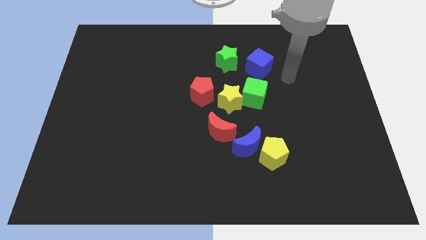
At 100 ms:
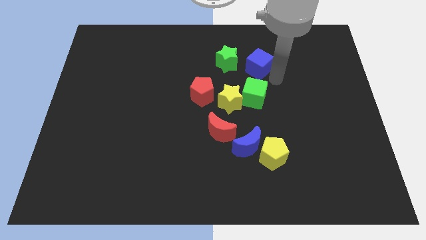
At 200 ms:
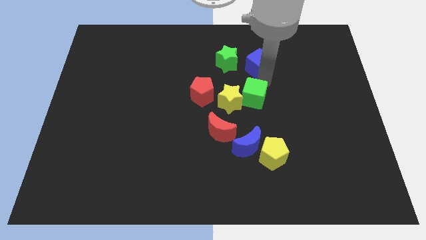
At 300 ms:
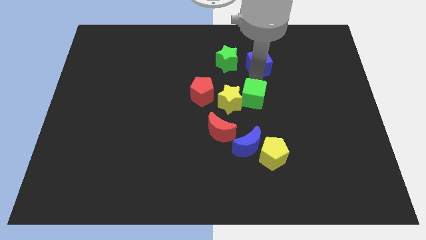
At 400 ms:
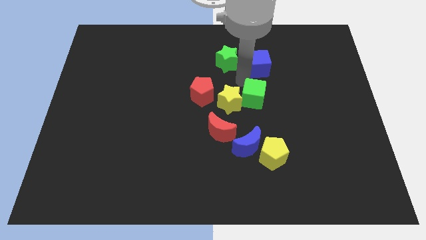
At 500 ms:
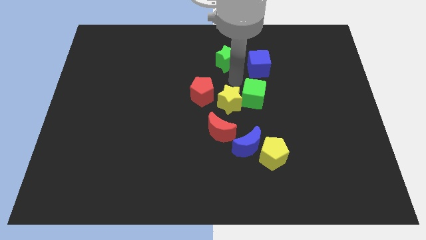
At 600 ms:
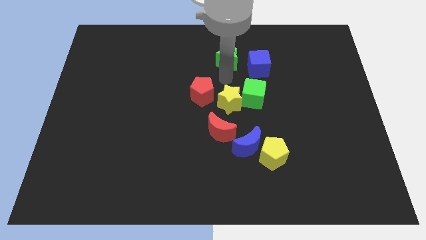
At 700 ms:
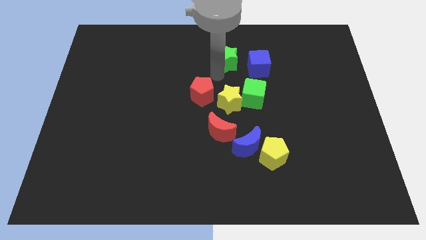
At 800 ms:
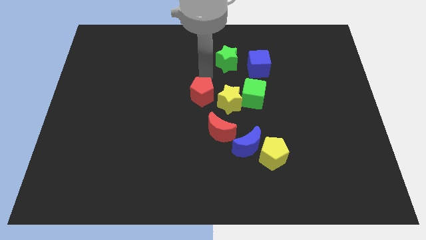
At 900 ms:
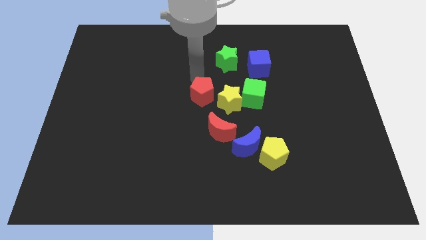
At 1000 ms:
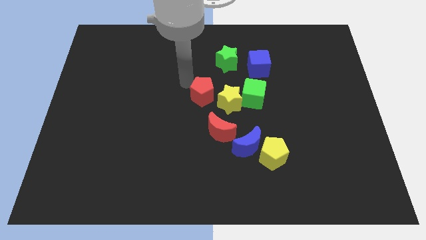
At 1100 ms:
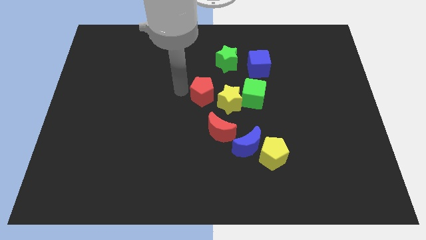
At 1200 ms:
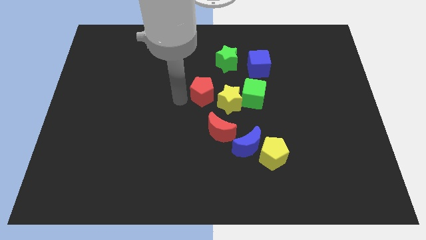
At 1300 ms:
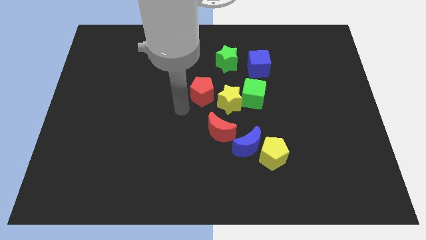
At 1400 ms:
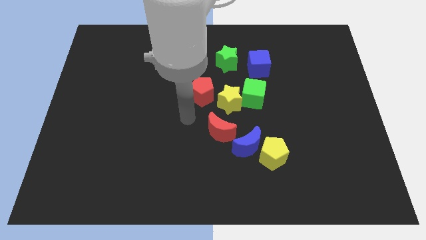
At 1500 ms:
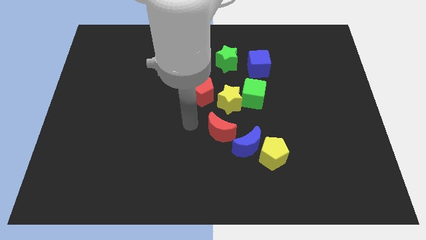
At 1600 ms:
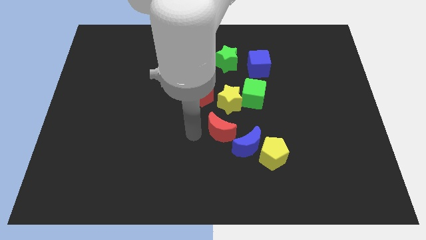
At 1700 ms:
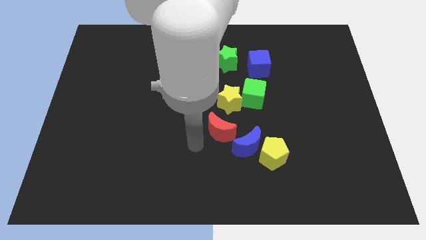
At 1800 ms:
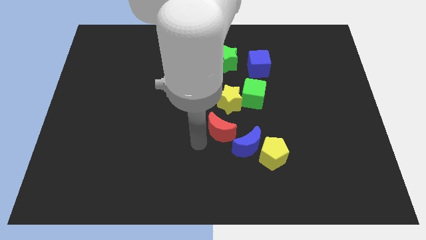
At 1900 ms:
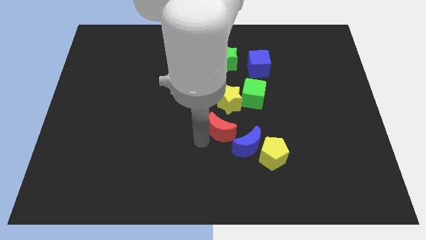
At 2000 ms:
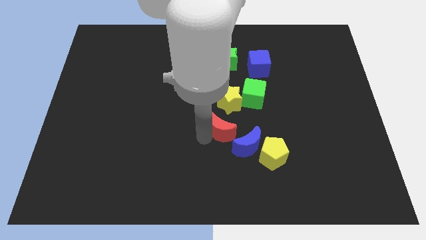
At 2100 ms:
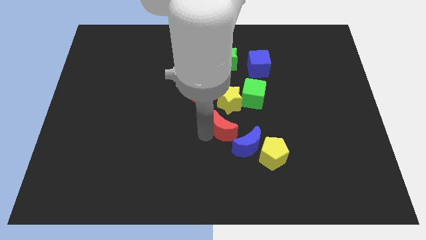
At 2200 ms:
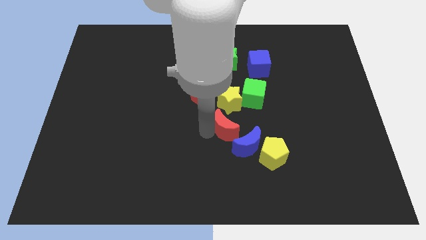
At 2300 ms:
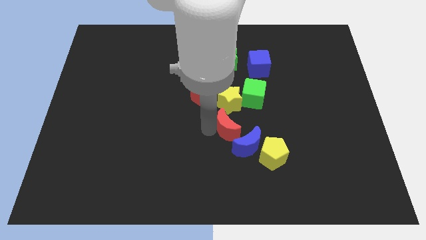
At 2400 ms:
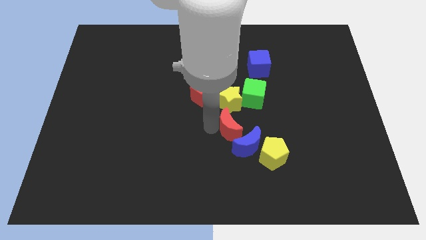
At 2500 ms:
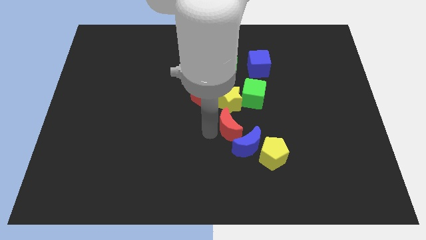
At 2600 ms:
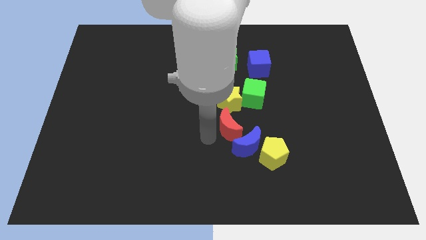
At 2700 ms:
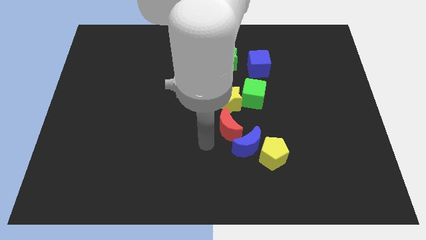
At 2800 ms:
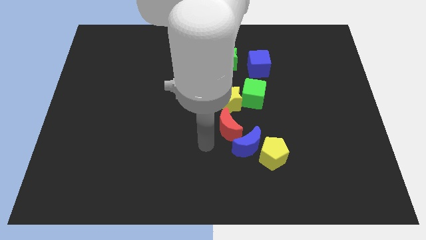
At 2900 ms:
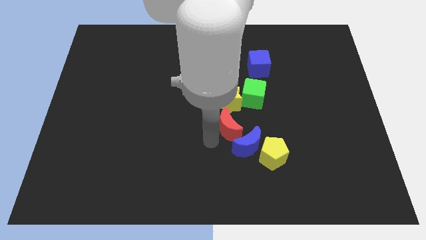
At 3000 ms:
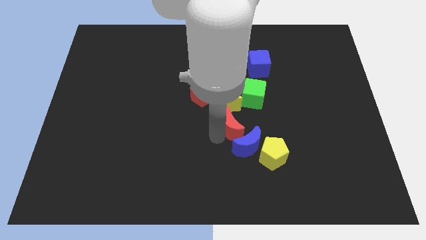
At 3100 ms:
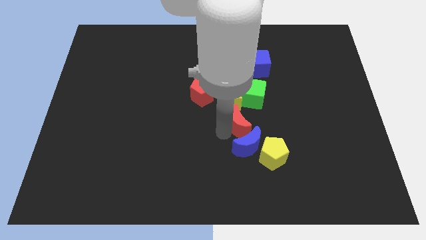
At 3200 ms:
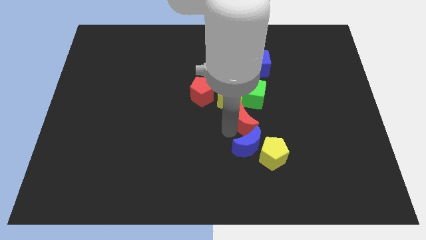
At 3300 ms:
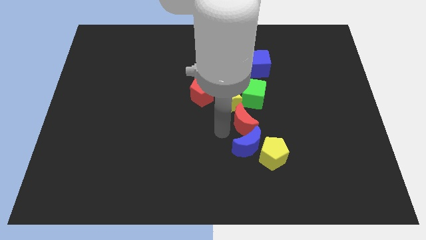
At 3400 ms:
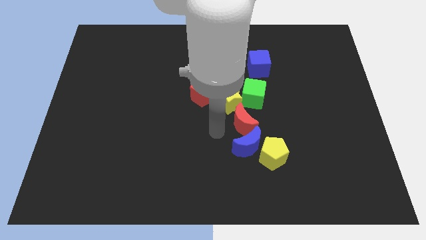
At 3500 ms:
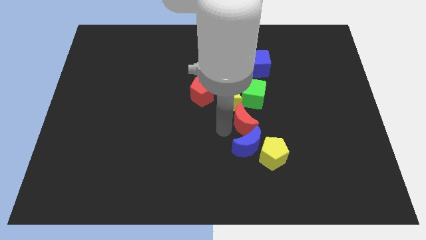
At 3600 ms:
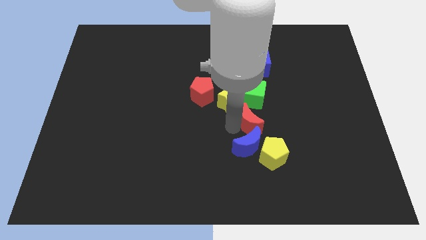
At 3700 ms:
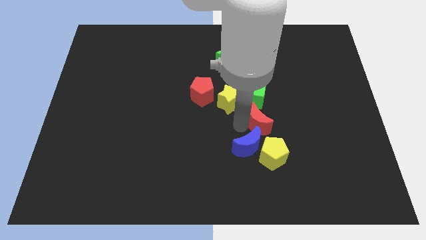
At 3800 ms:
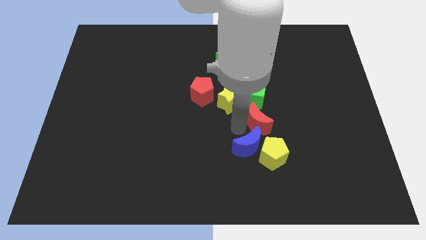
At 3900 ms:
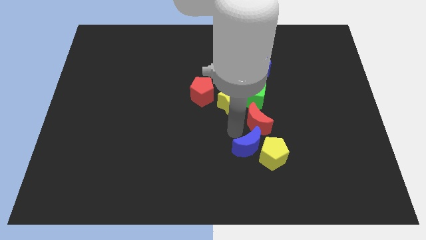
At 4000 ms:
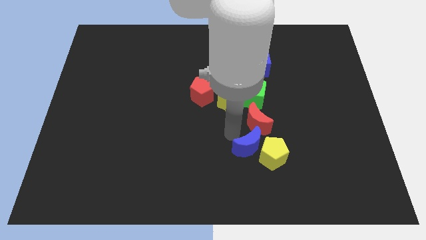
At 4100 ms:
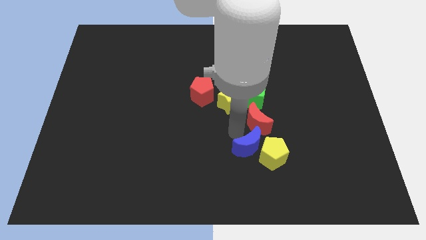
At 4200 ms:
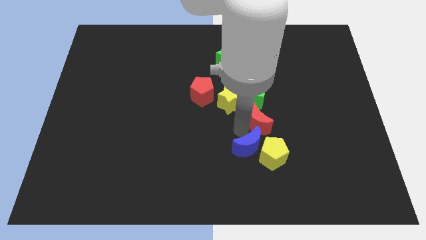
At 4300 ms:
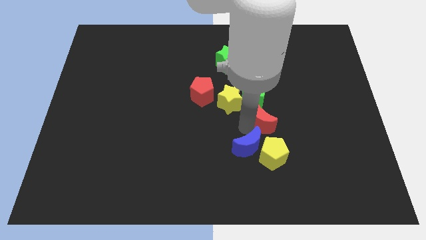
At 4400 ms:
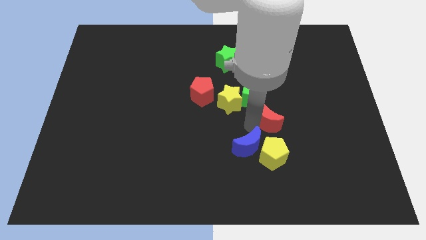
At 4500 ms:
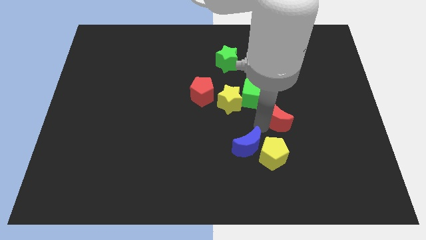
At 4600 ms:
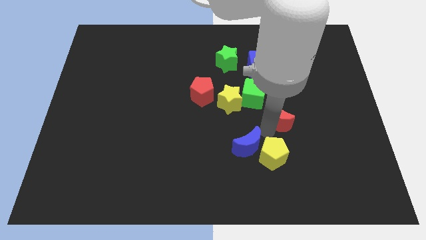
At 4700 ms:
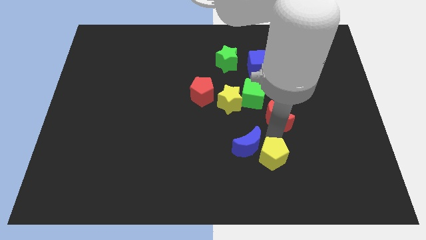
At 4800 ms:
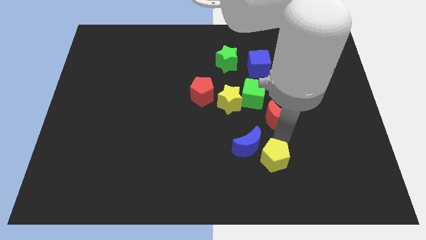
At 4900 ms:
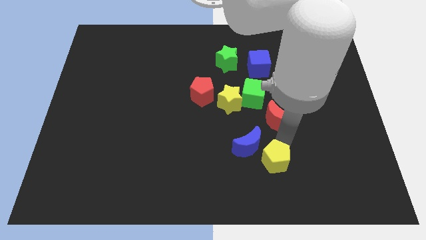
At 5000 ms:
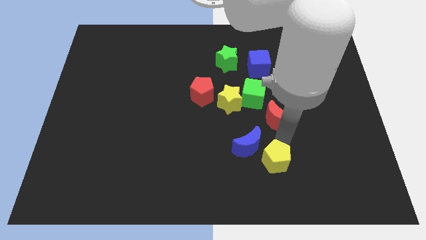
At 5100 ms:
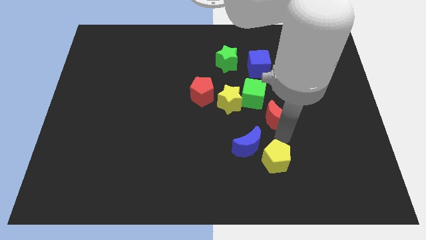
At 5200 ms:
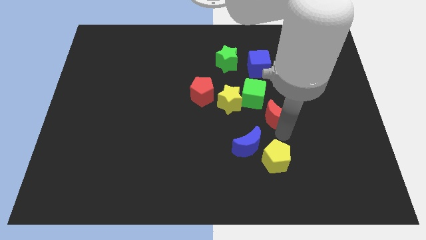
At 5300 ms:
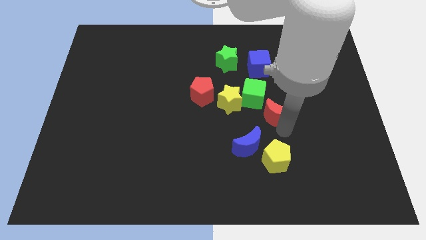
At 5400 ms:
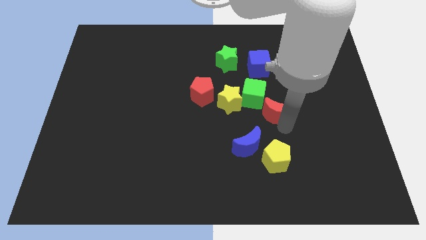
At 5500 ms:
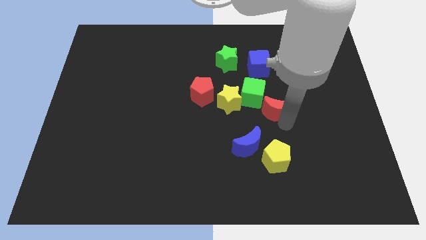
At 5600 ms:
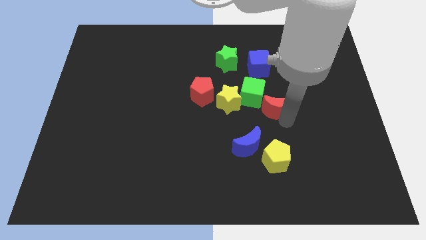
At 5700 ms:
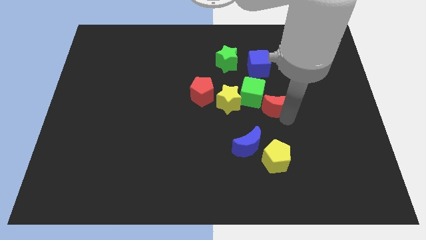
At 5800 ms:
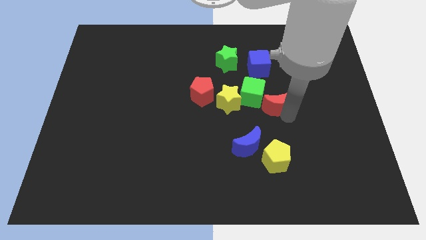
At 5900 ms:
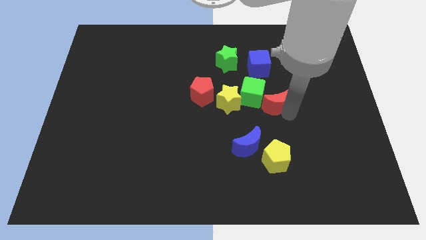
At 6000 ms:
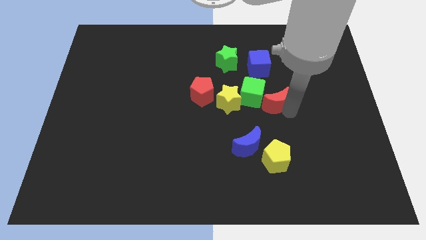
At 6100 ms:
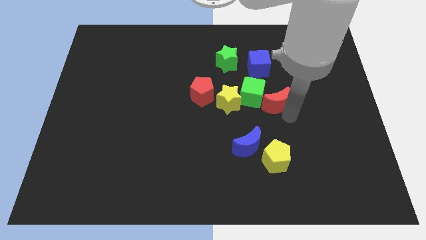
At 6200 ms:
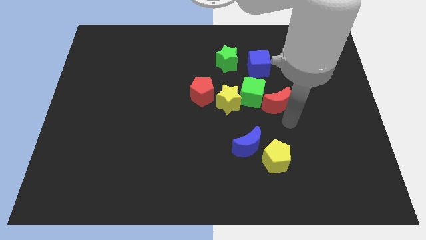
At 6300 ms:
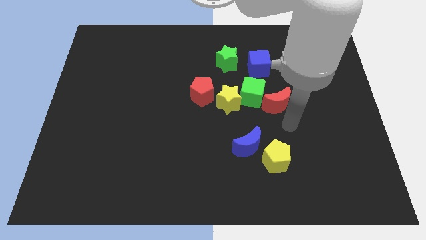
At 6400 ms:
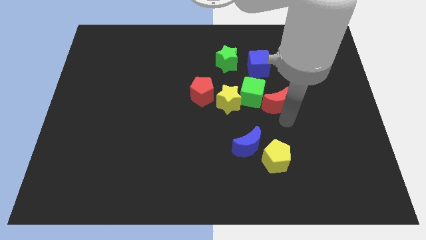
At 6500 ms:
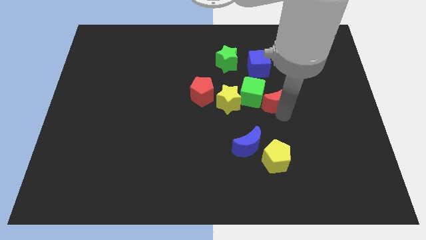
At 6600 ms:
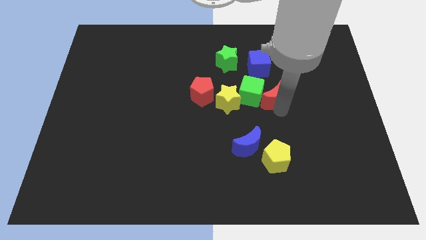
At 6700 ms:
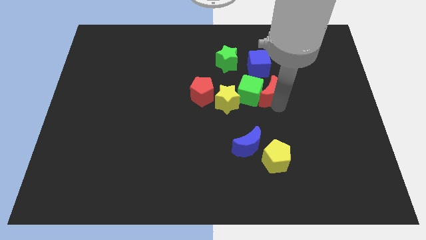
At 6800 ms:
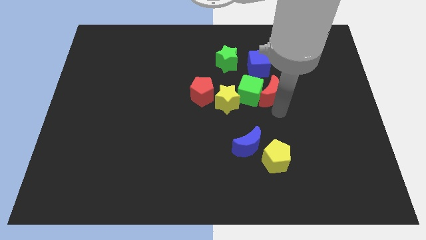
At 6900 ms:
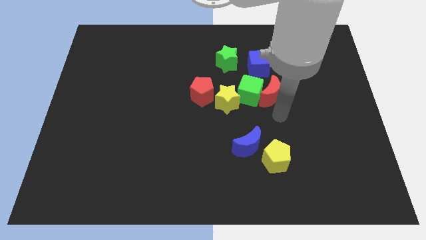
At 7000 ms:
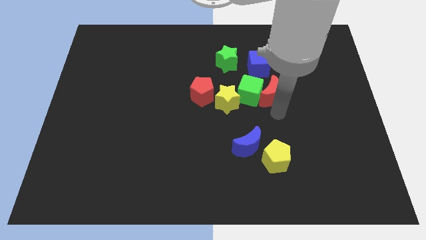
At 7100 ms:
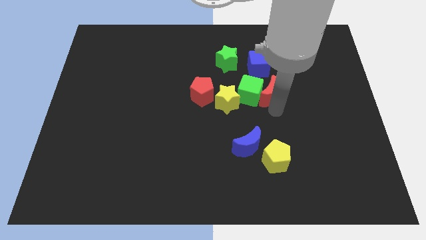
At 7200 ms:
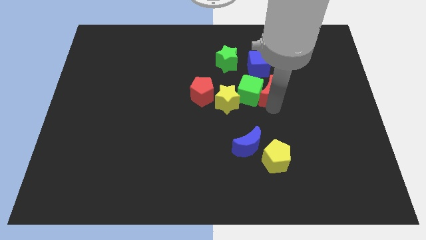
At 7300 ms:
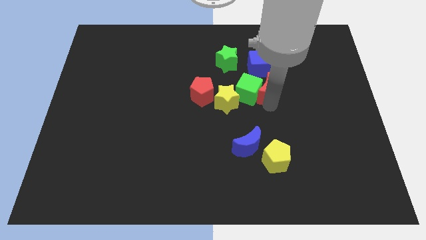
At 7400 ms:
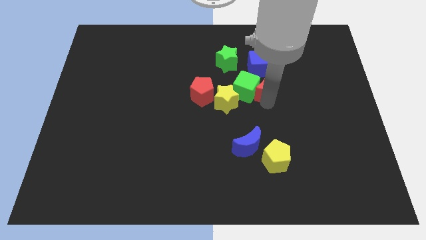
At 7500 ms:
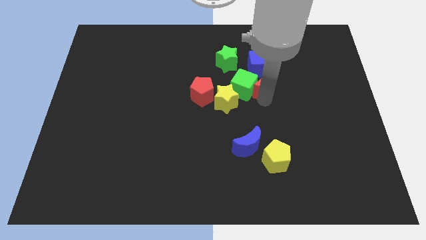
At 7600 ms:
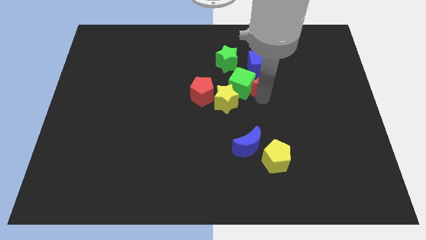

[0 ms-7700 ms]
move the red moon towards the blue cube

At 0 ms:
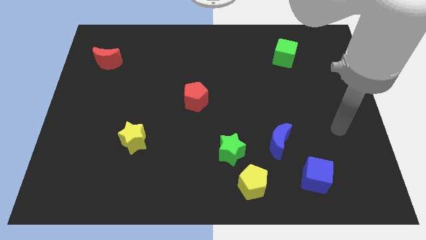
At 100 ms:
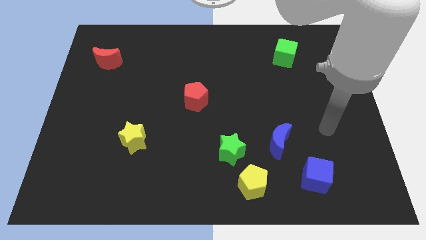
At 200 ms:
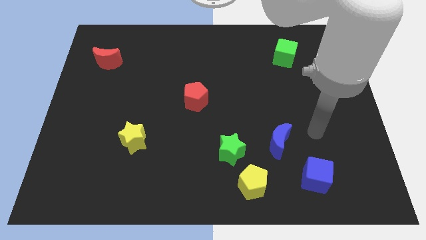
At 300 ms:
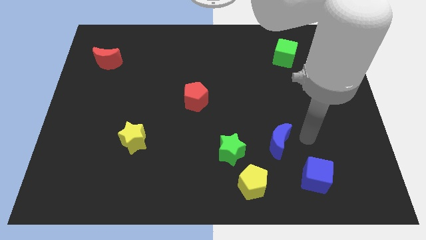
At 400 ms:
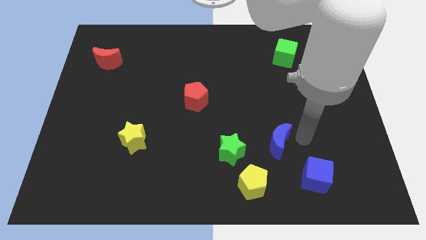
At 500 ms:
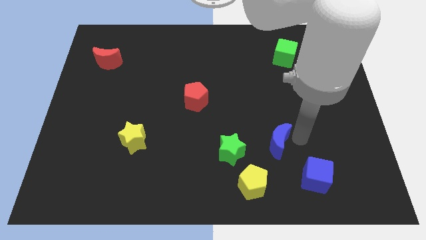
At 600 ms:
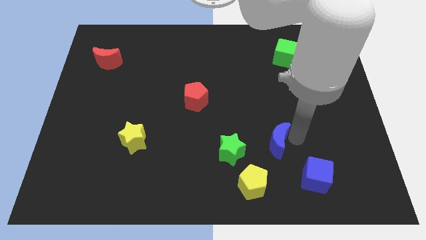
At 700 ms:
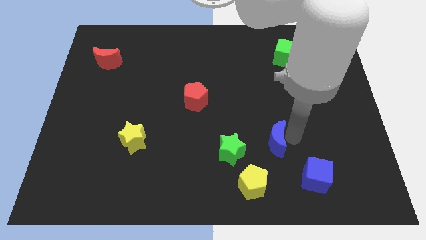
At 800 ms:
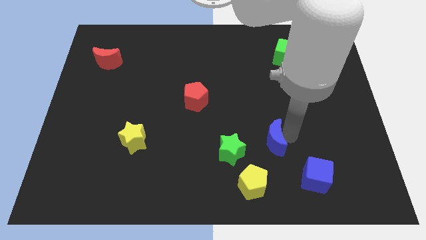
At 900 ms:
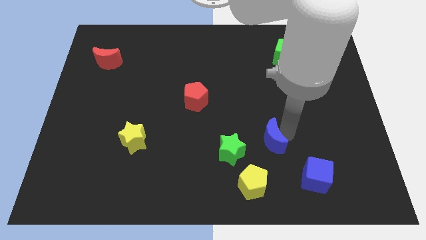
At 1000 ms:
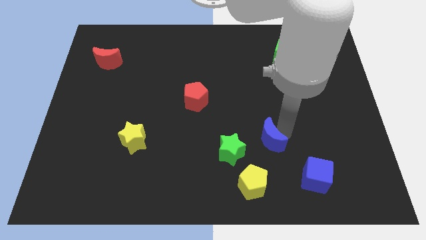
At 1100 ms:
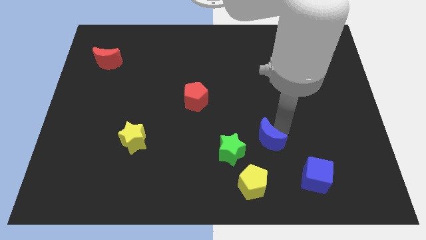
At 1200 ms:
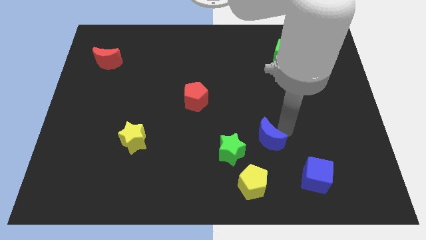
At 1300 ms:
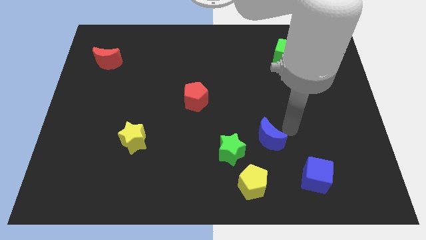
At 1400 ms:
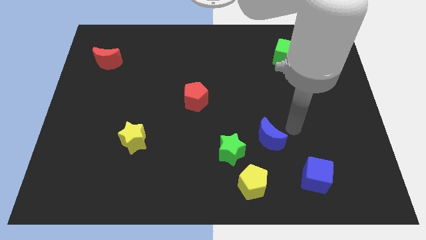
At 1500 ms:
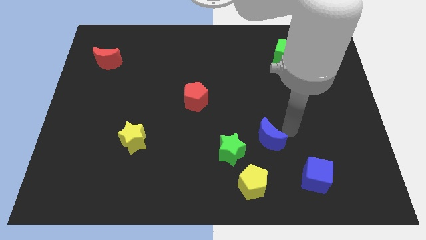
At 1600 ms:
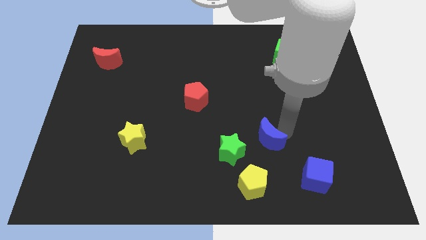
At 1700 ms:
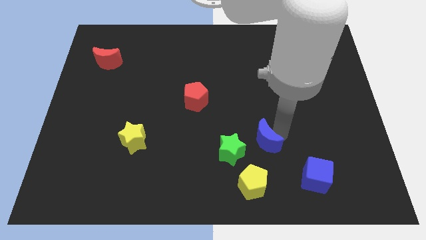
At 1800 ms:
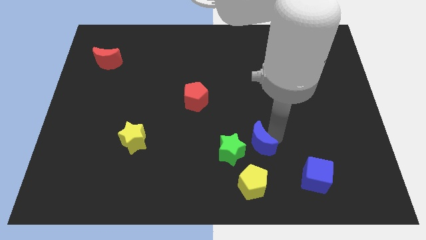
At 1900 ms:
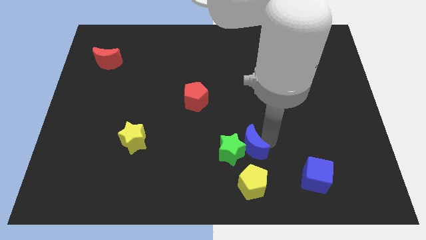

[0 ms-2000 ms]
put the blue moon close to the green star
